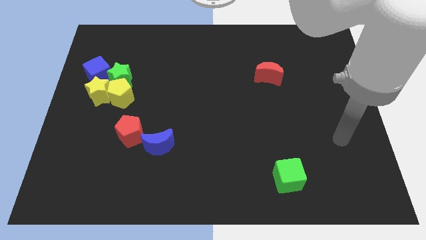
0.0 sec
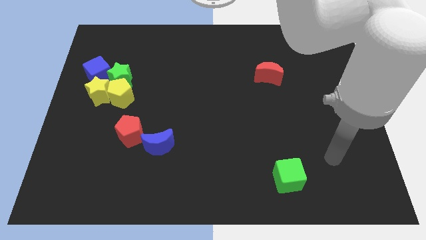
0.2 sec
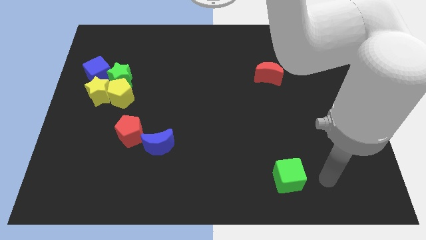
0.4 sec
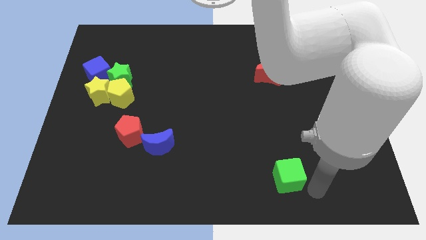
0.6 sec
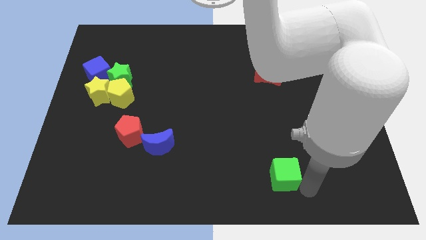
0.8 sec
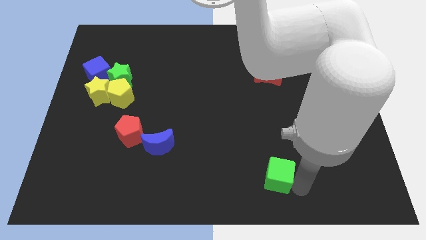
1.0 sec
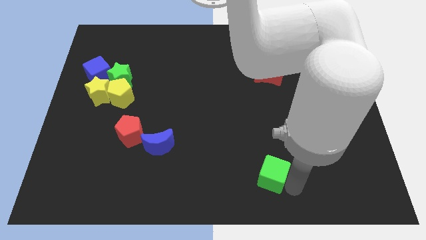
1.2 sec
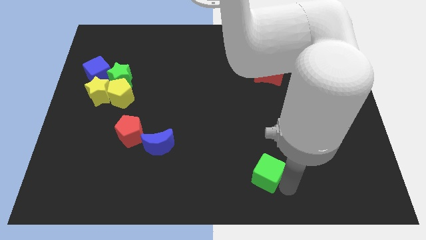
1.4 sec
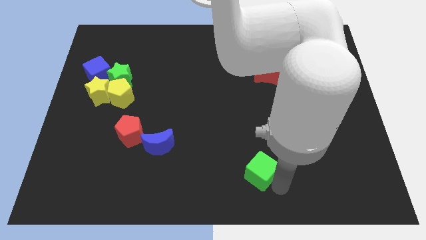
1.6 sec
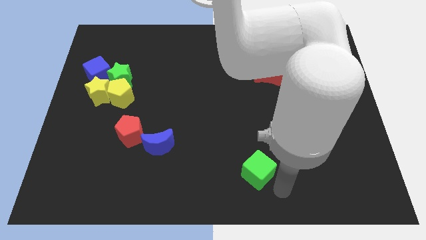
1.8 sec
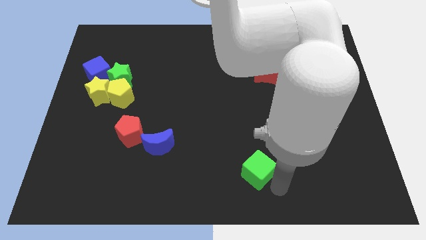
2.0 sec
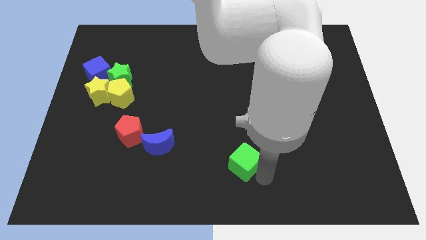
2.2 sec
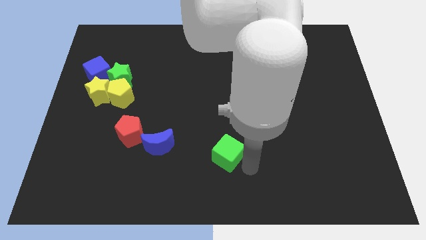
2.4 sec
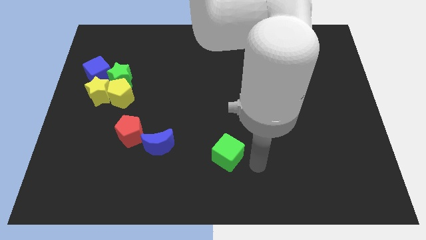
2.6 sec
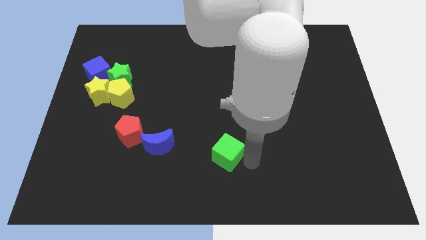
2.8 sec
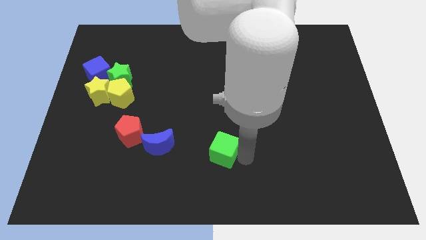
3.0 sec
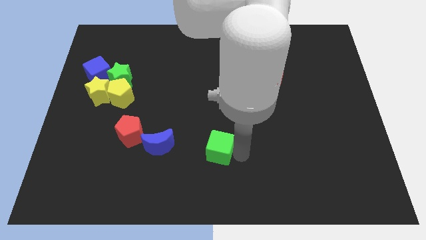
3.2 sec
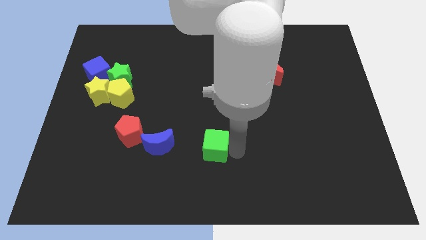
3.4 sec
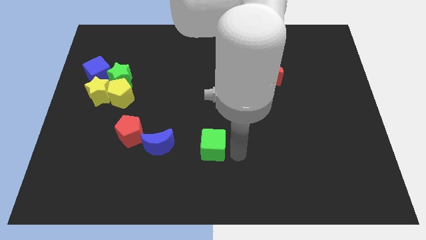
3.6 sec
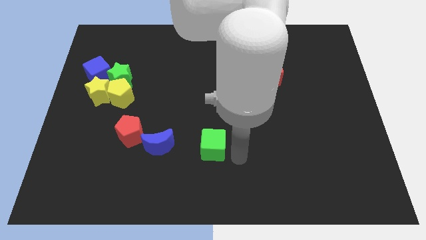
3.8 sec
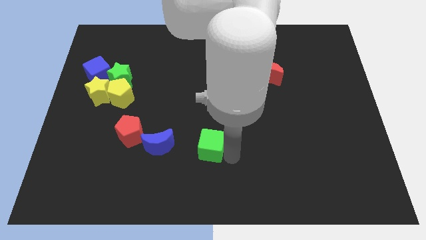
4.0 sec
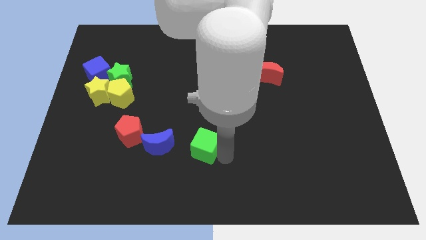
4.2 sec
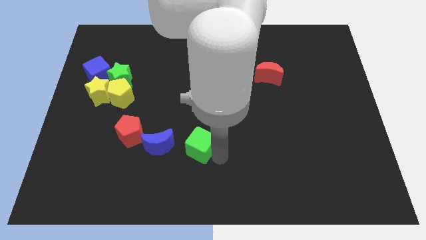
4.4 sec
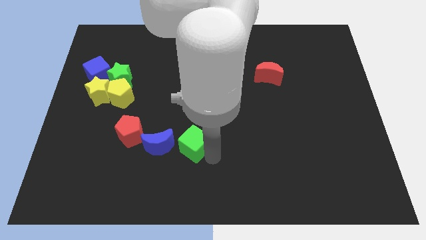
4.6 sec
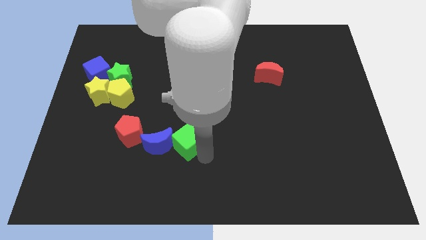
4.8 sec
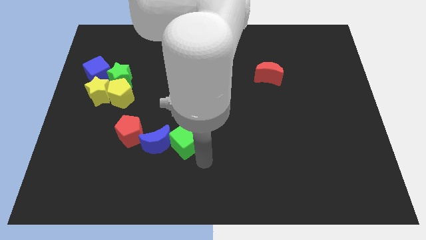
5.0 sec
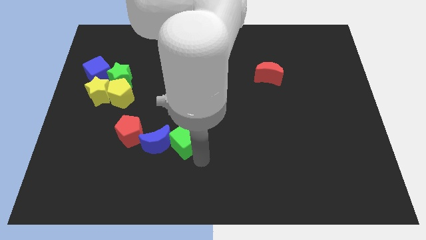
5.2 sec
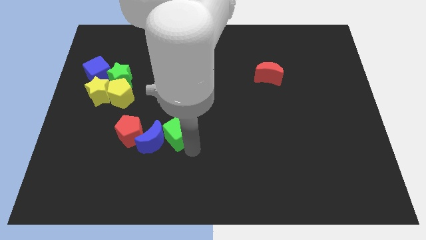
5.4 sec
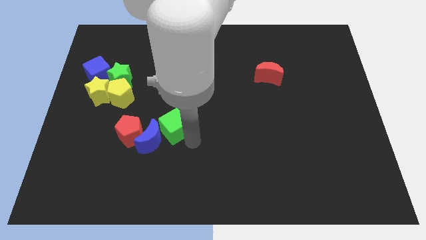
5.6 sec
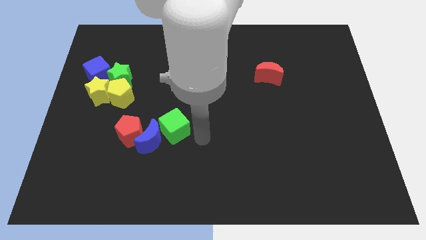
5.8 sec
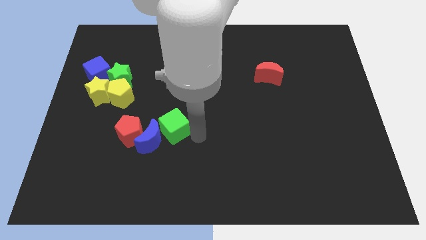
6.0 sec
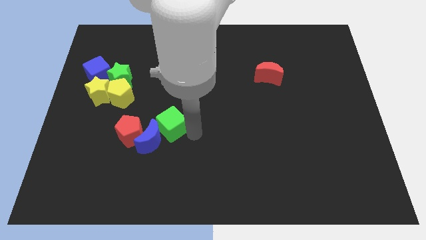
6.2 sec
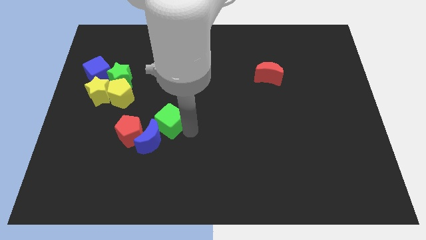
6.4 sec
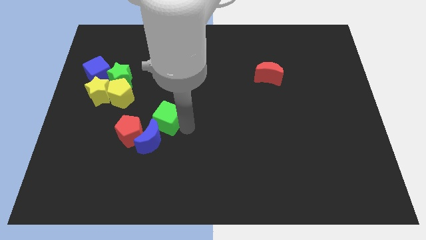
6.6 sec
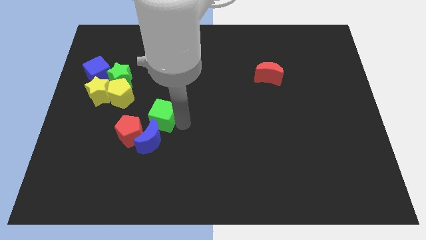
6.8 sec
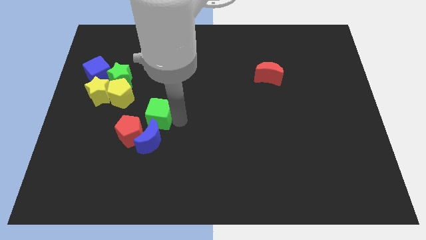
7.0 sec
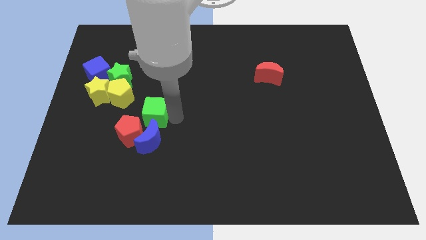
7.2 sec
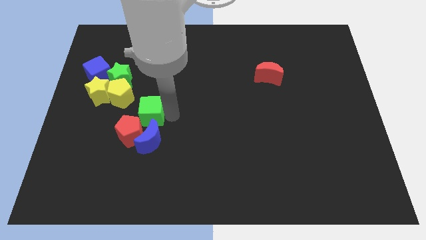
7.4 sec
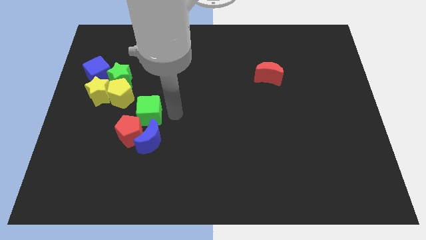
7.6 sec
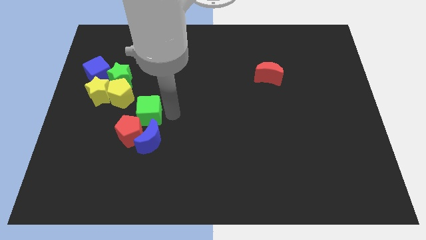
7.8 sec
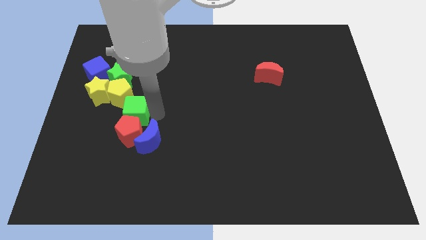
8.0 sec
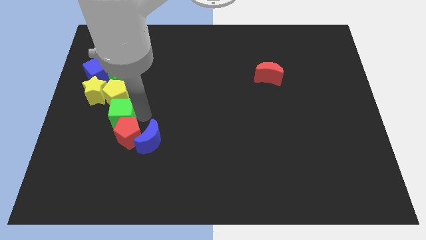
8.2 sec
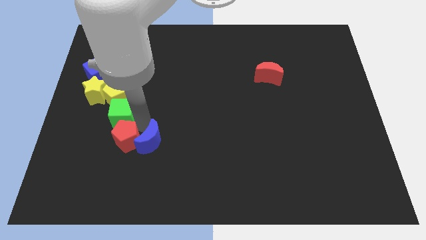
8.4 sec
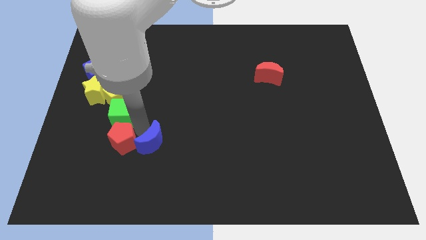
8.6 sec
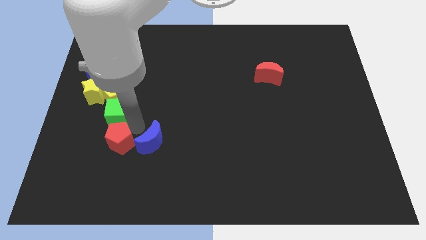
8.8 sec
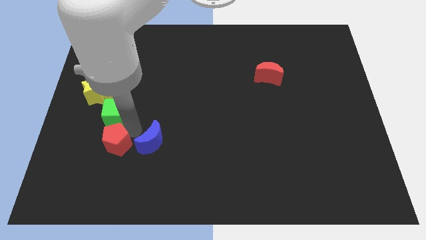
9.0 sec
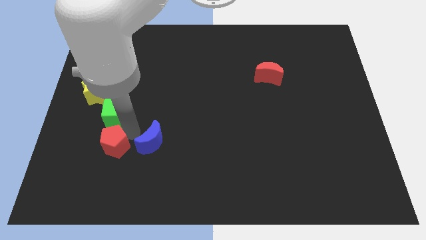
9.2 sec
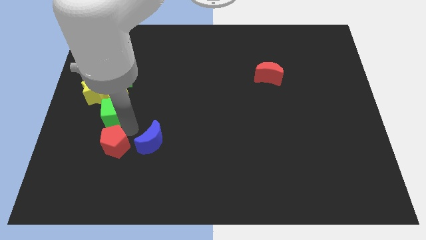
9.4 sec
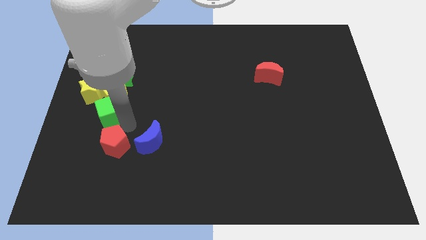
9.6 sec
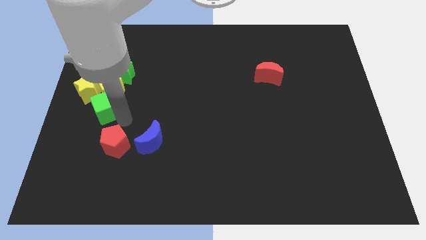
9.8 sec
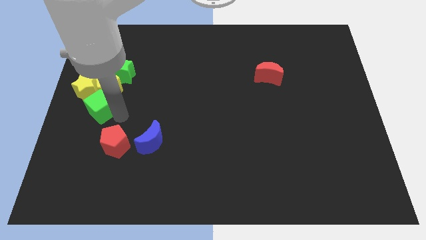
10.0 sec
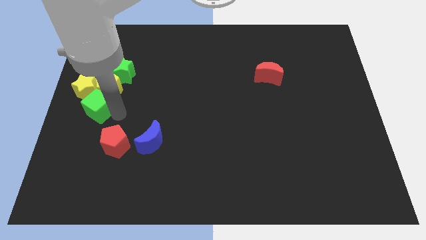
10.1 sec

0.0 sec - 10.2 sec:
move the green cube to the yellow star

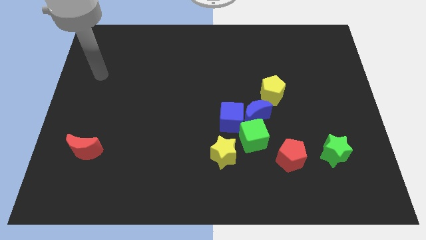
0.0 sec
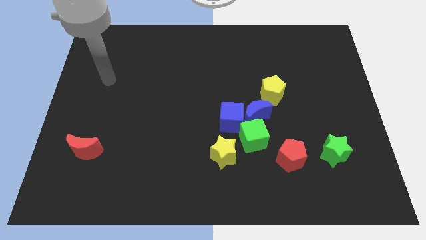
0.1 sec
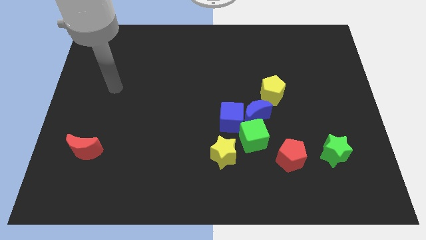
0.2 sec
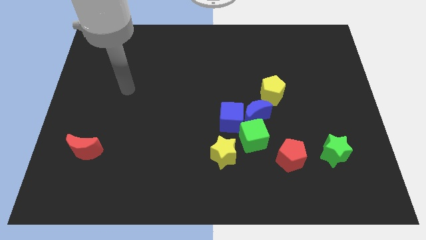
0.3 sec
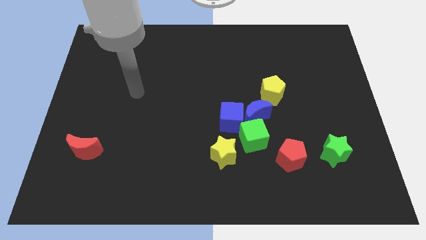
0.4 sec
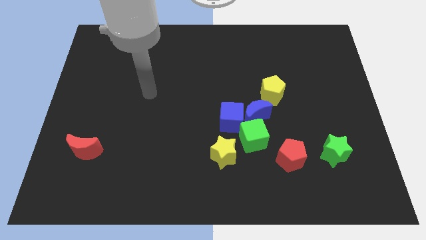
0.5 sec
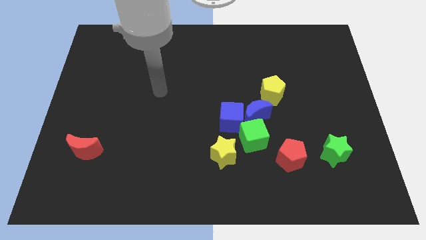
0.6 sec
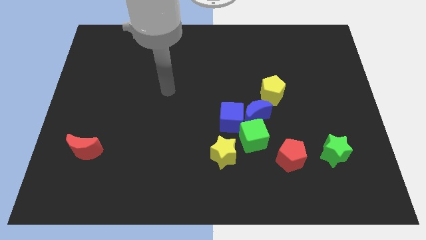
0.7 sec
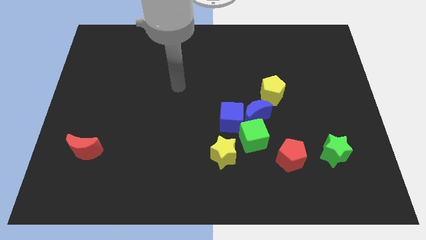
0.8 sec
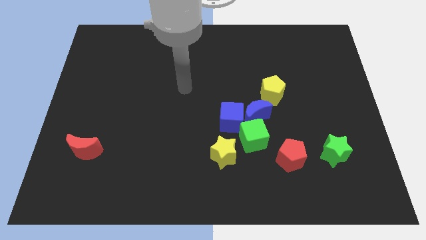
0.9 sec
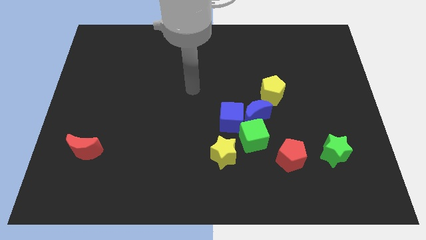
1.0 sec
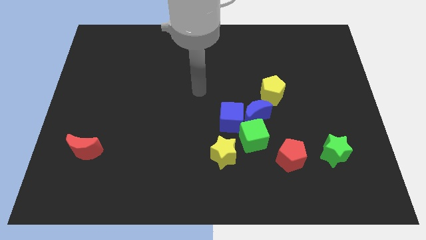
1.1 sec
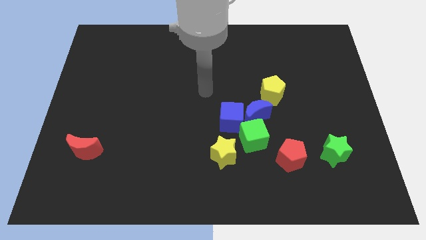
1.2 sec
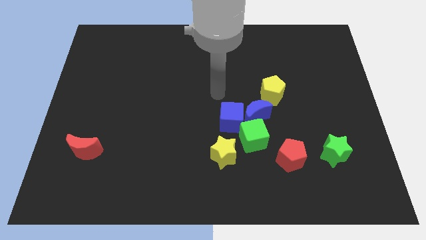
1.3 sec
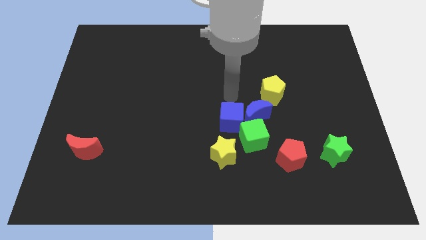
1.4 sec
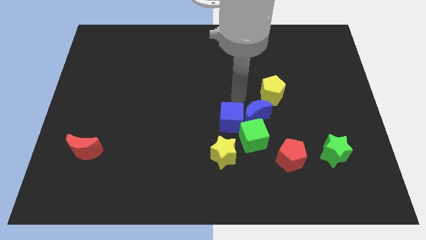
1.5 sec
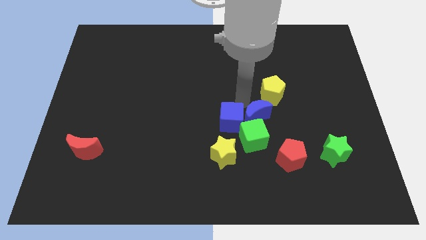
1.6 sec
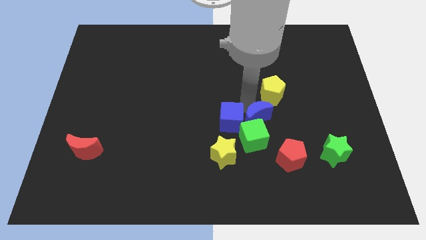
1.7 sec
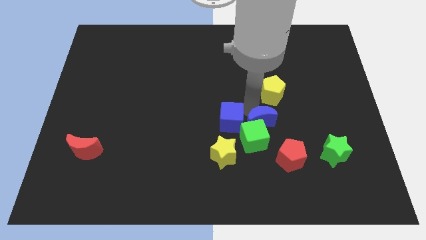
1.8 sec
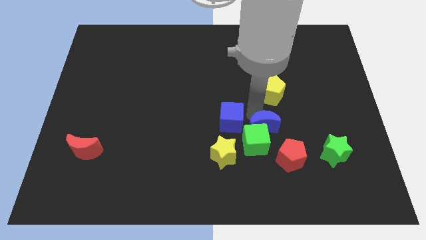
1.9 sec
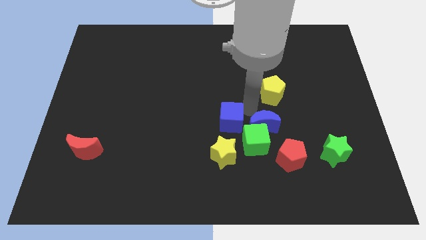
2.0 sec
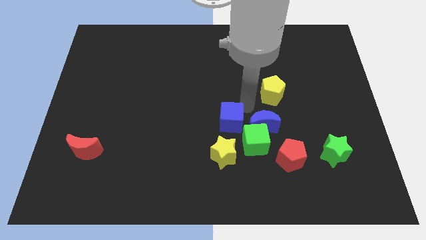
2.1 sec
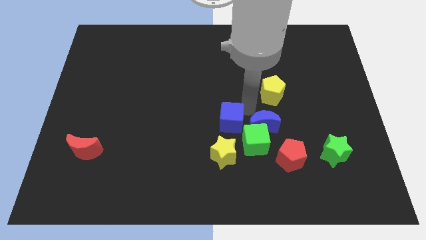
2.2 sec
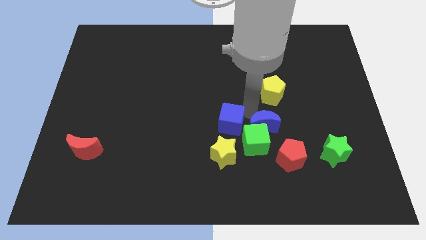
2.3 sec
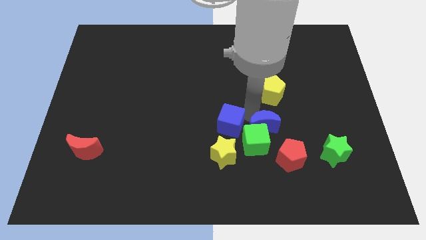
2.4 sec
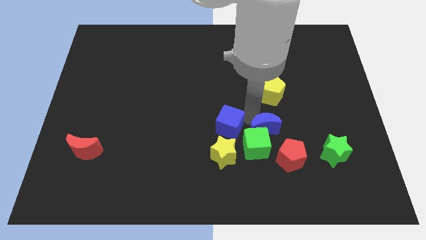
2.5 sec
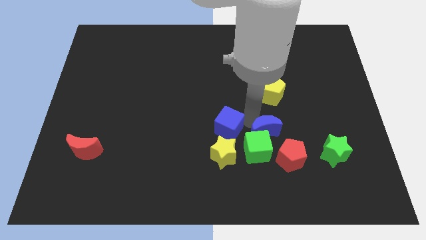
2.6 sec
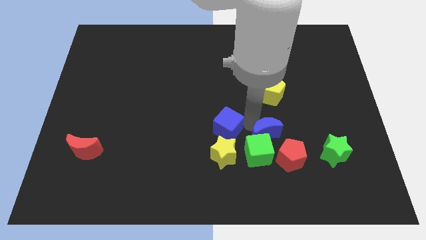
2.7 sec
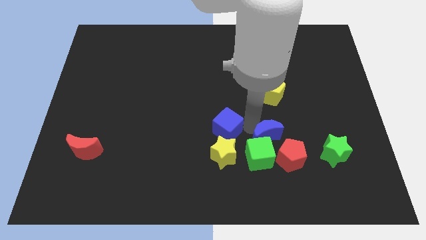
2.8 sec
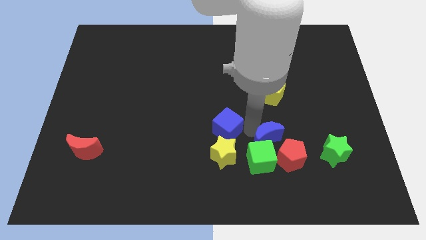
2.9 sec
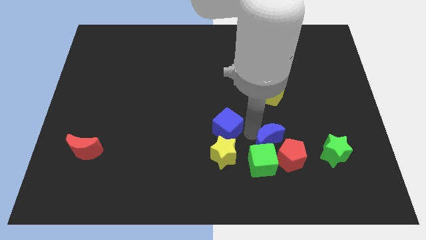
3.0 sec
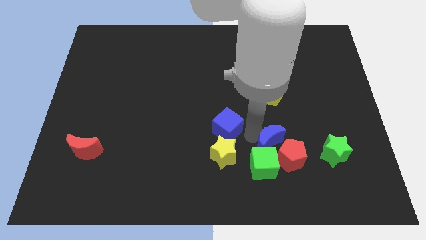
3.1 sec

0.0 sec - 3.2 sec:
push the blue moon to the red pentagon
